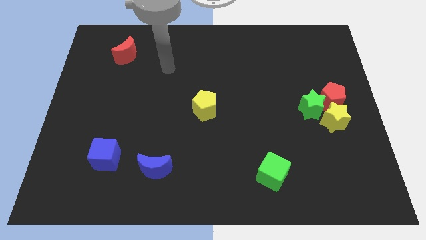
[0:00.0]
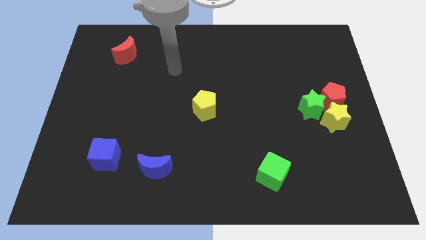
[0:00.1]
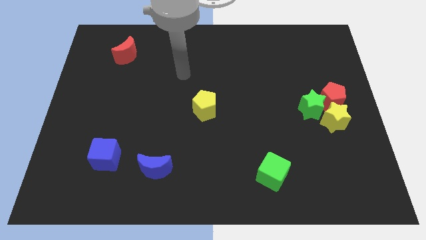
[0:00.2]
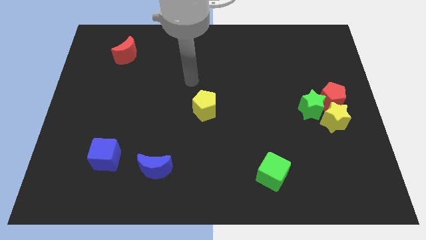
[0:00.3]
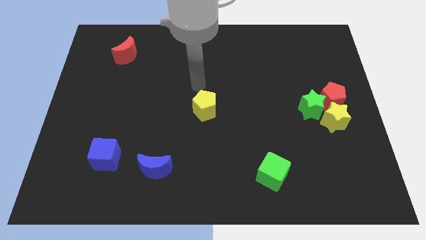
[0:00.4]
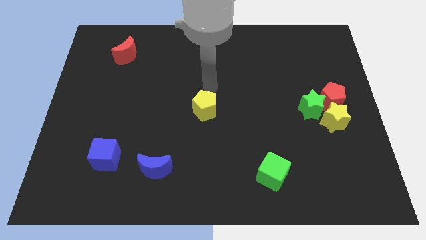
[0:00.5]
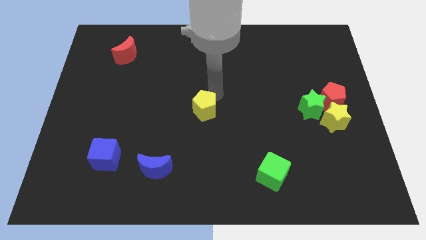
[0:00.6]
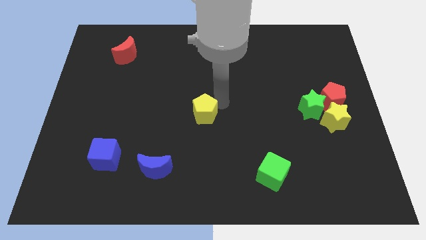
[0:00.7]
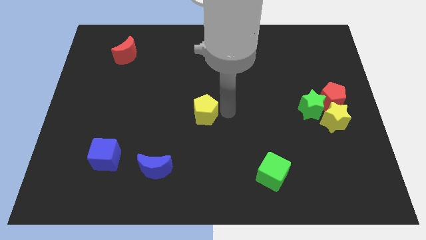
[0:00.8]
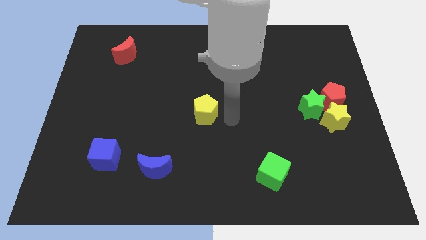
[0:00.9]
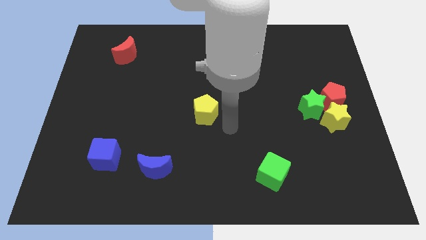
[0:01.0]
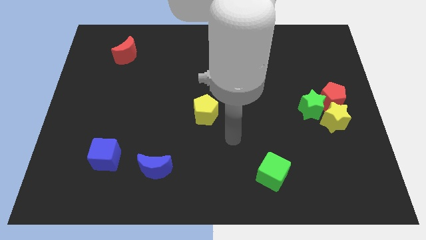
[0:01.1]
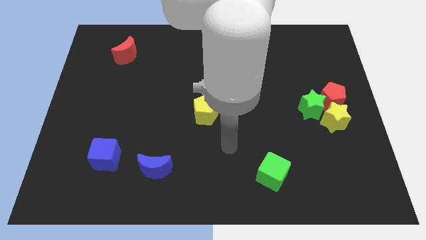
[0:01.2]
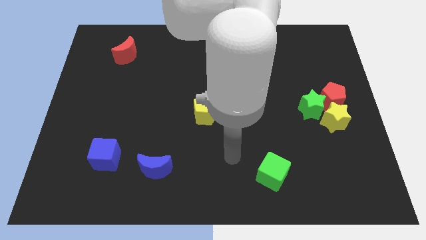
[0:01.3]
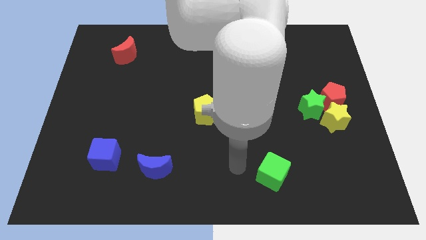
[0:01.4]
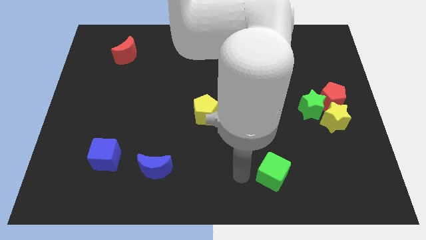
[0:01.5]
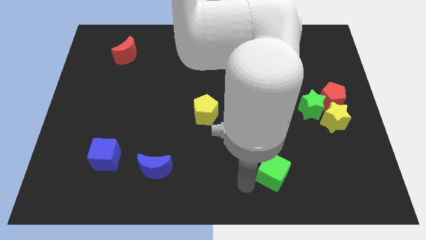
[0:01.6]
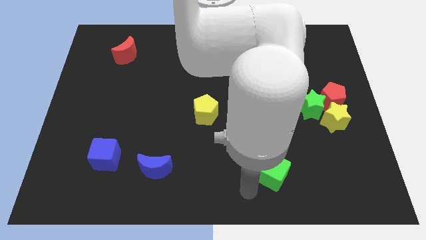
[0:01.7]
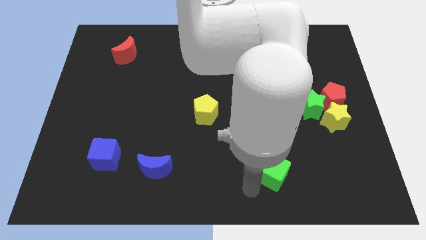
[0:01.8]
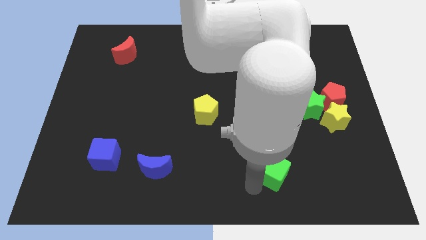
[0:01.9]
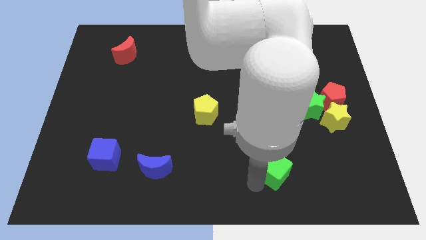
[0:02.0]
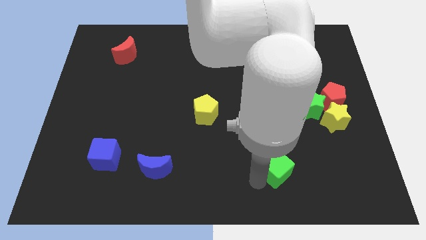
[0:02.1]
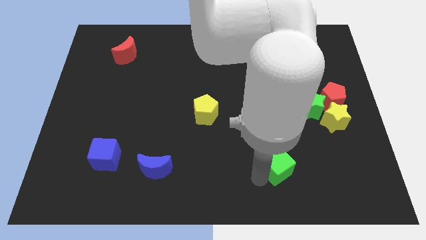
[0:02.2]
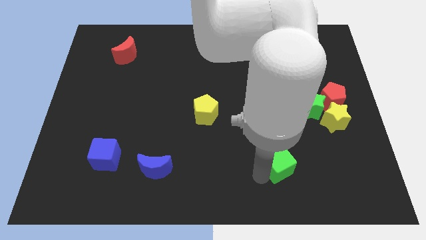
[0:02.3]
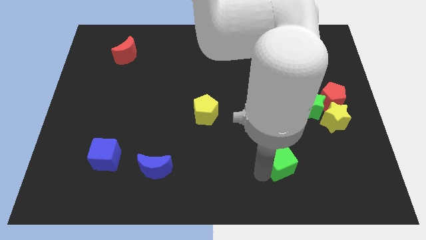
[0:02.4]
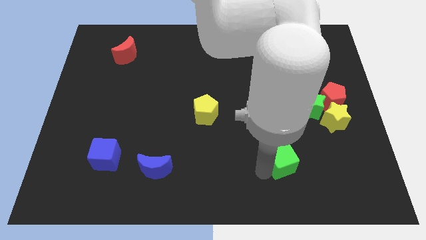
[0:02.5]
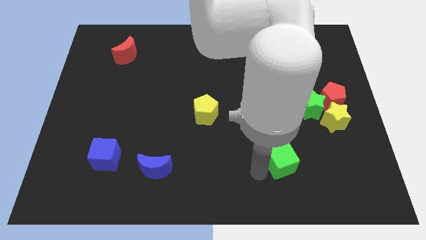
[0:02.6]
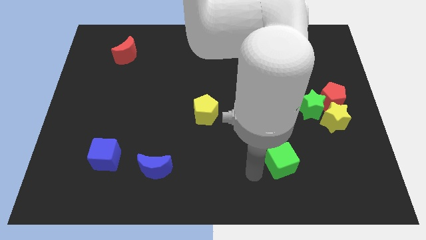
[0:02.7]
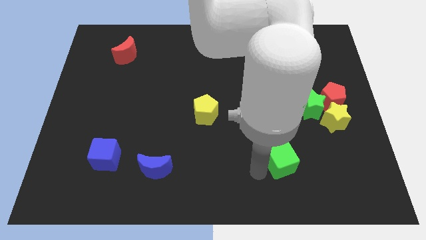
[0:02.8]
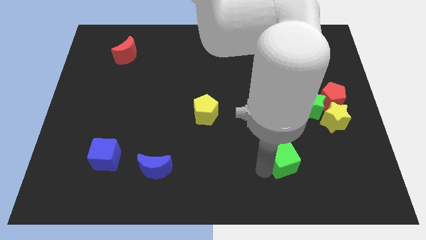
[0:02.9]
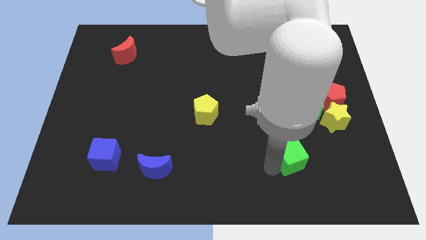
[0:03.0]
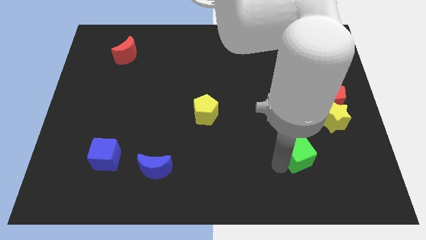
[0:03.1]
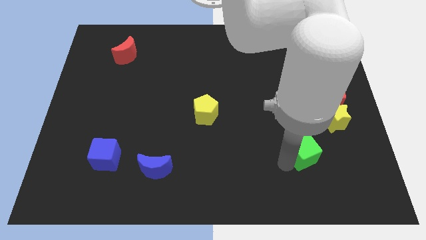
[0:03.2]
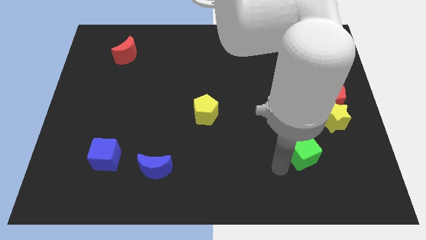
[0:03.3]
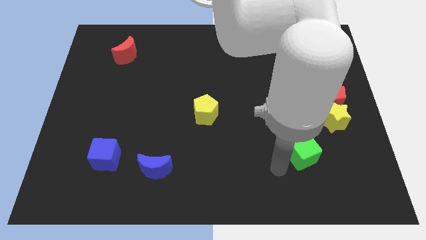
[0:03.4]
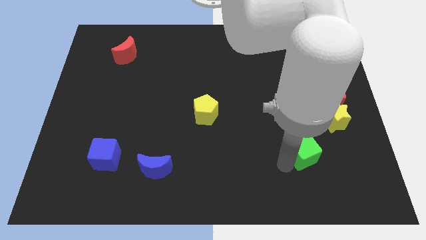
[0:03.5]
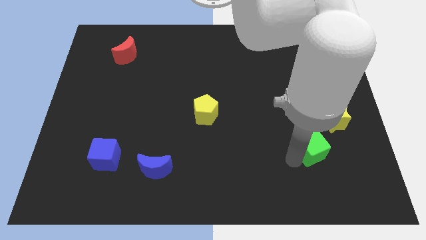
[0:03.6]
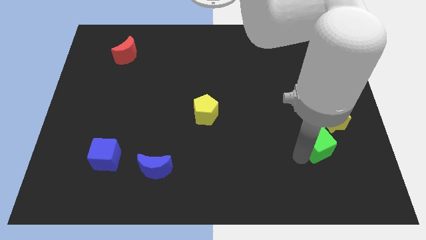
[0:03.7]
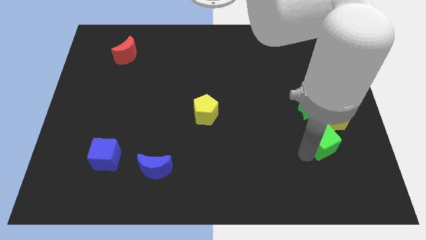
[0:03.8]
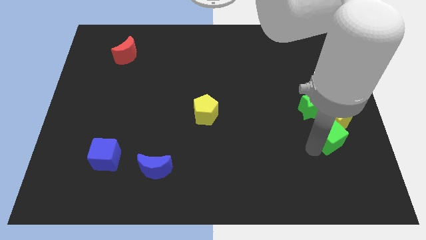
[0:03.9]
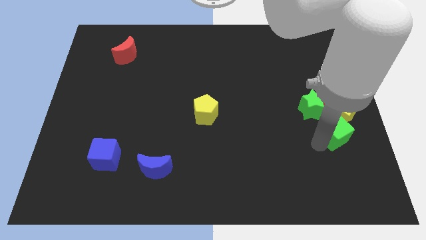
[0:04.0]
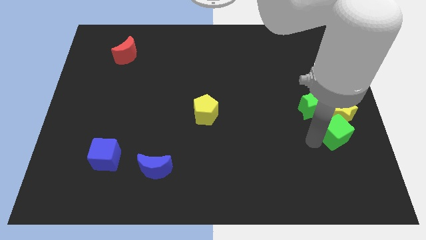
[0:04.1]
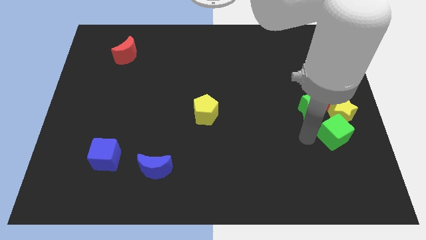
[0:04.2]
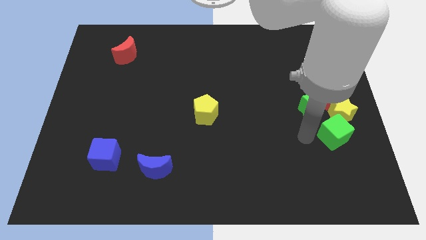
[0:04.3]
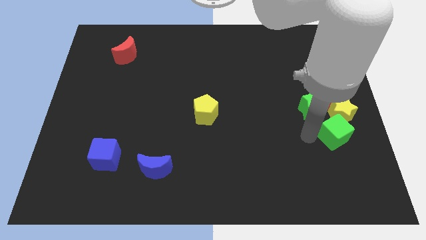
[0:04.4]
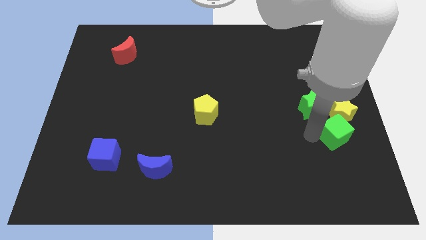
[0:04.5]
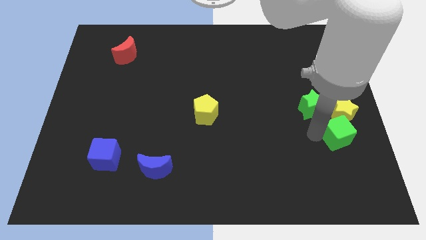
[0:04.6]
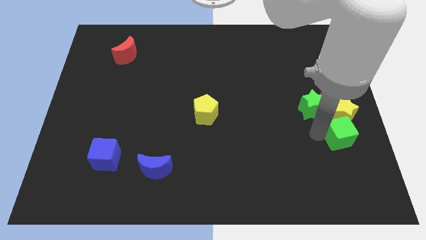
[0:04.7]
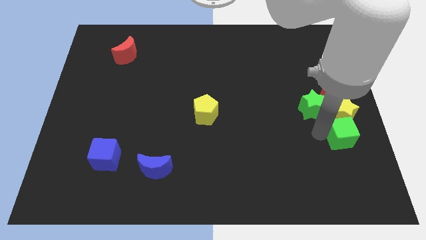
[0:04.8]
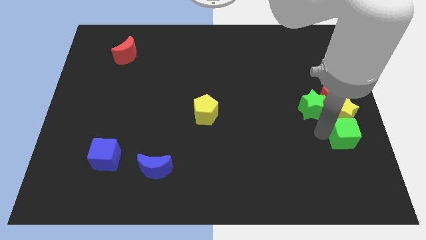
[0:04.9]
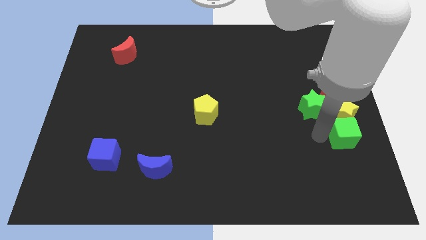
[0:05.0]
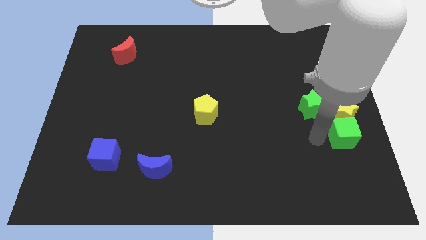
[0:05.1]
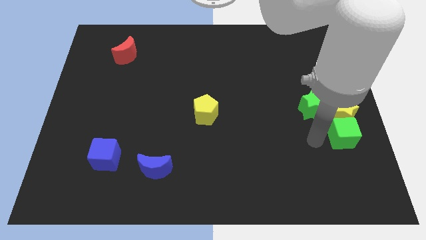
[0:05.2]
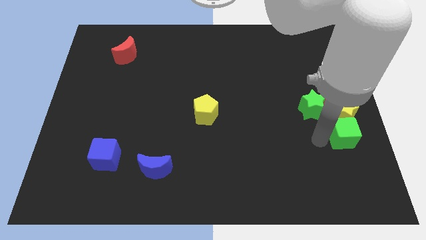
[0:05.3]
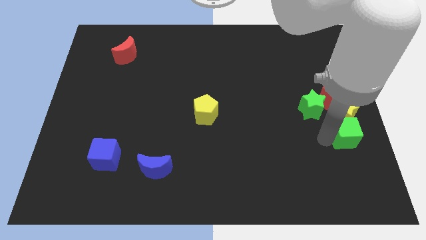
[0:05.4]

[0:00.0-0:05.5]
move the green cube to the right side of the board
